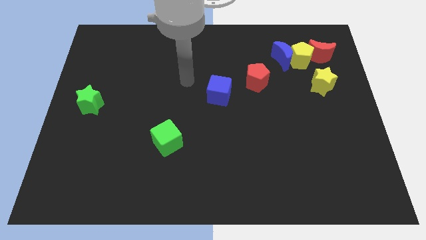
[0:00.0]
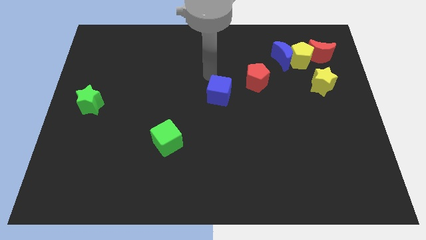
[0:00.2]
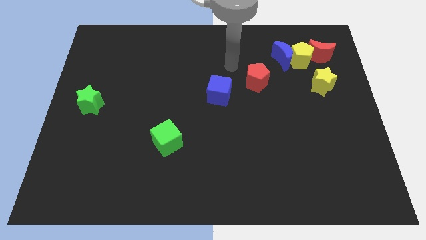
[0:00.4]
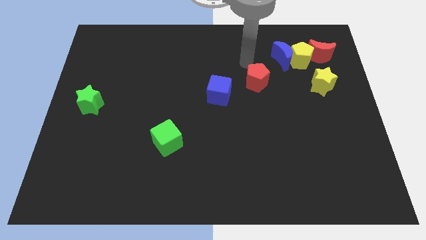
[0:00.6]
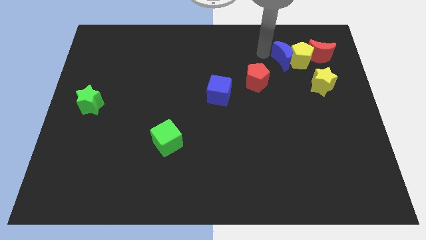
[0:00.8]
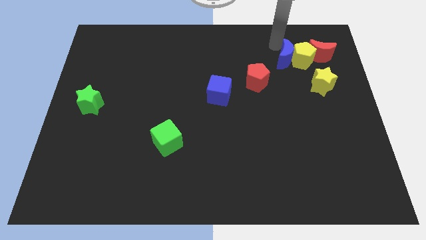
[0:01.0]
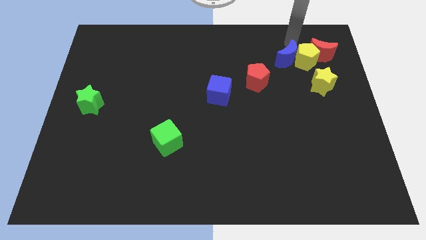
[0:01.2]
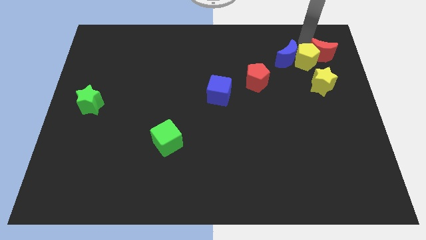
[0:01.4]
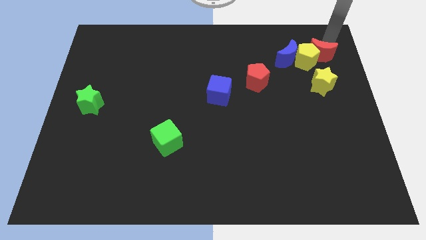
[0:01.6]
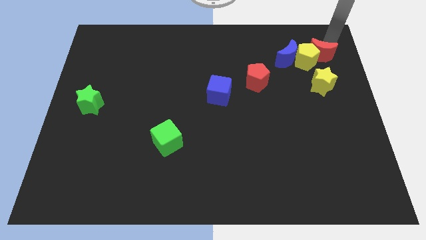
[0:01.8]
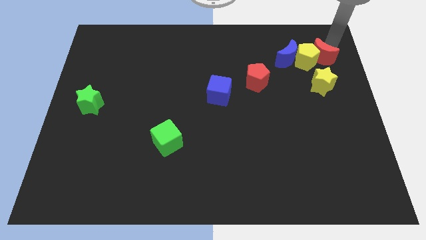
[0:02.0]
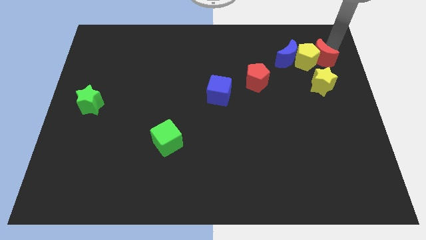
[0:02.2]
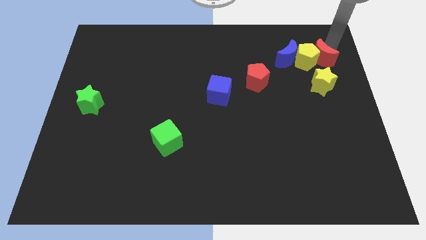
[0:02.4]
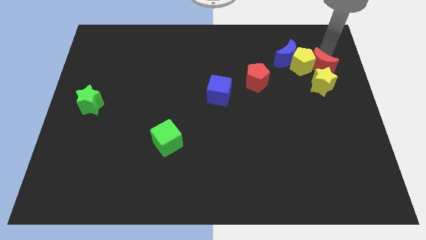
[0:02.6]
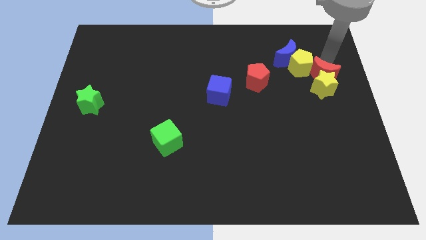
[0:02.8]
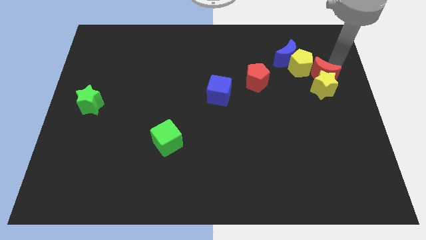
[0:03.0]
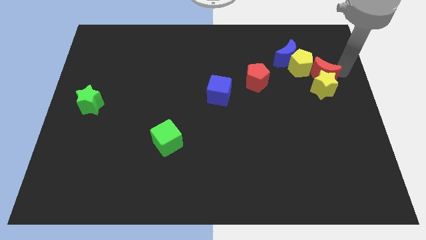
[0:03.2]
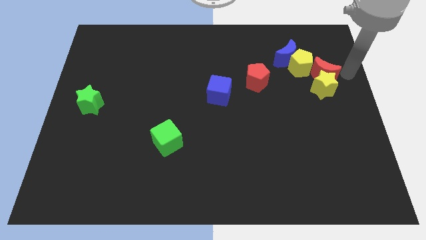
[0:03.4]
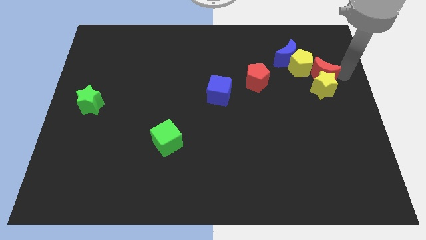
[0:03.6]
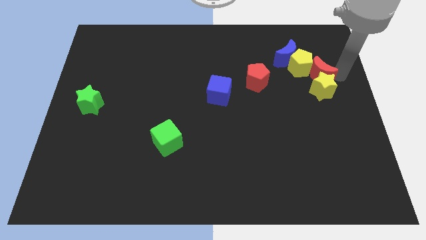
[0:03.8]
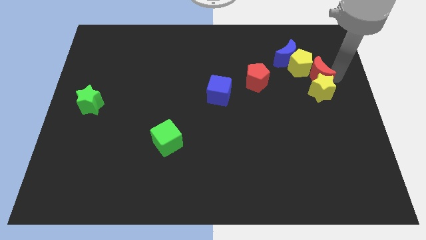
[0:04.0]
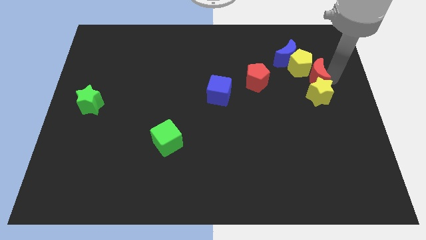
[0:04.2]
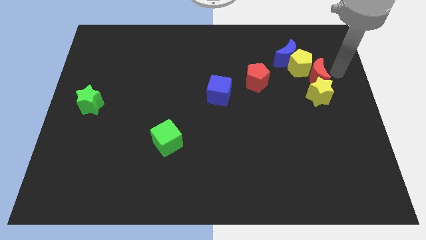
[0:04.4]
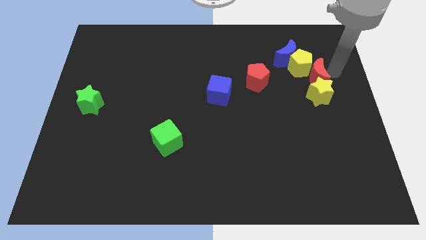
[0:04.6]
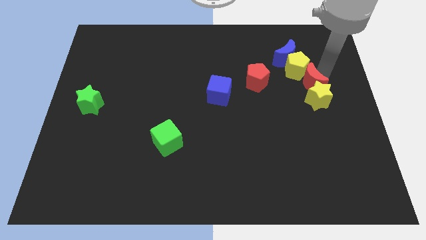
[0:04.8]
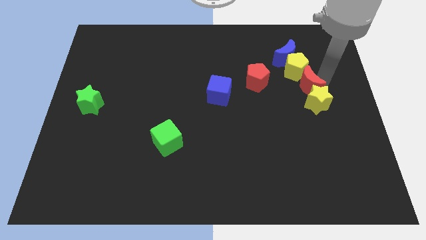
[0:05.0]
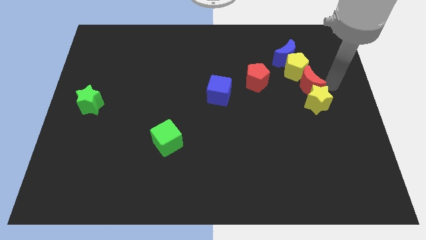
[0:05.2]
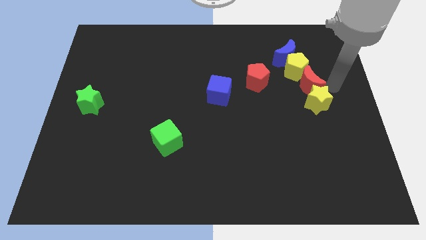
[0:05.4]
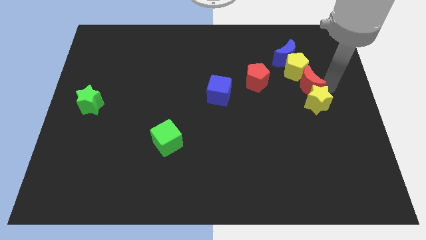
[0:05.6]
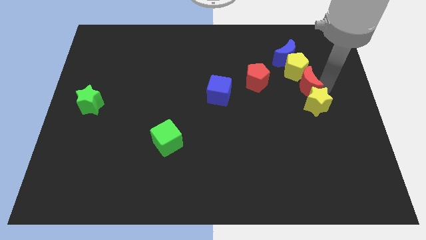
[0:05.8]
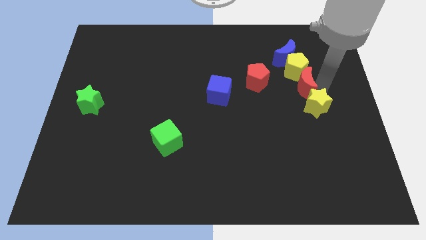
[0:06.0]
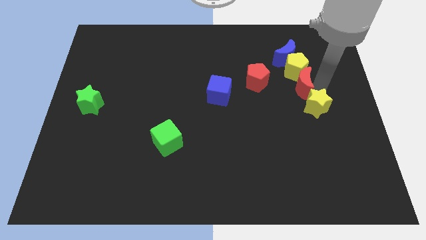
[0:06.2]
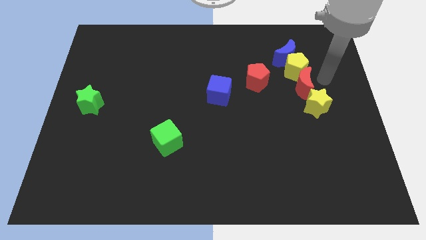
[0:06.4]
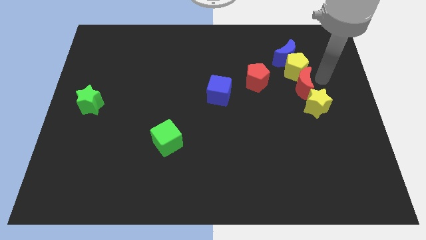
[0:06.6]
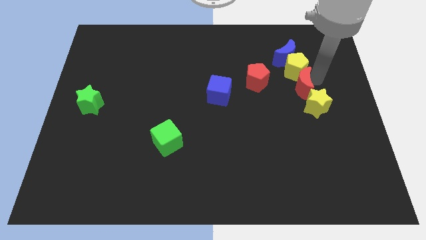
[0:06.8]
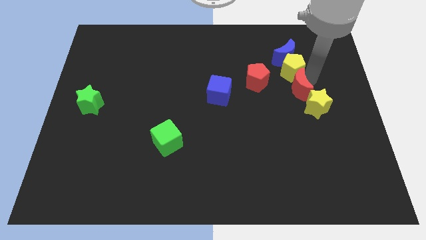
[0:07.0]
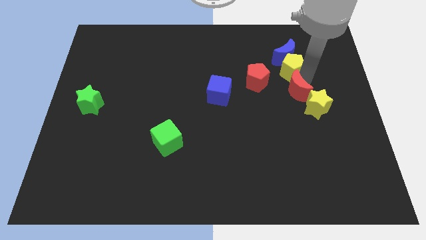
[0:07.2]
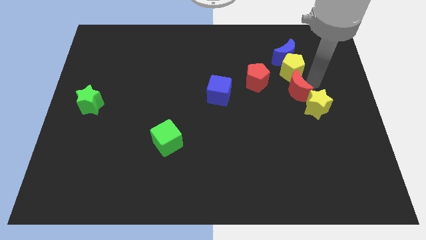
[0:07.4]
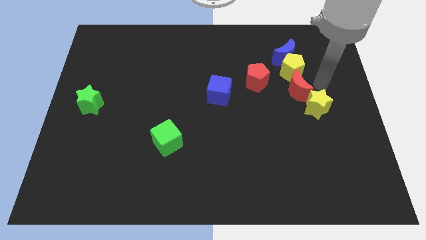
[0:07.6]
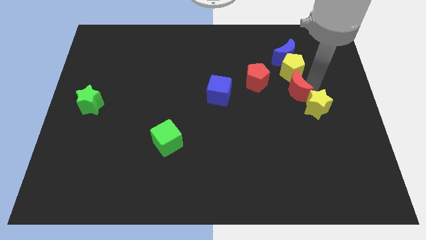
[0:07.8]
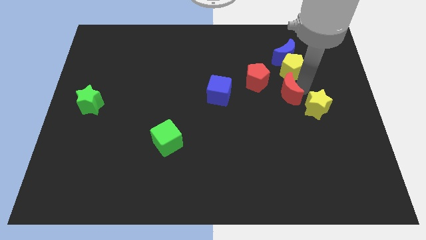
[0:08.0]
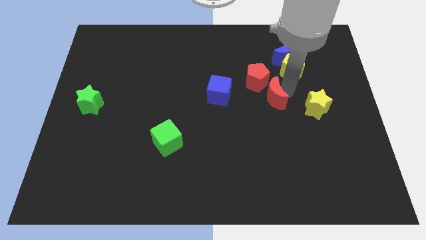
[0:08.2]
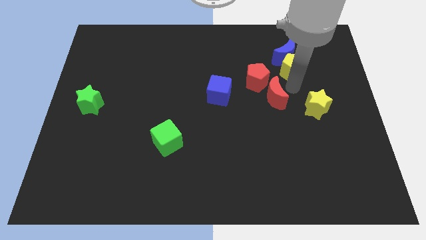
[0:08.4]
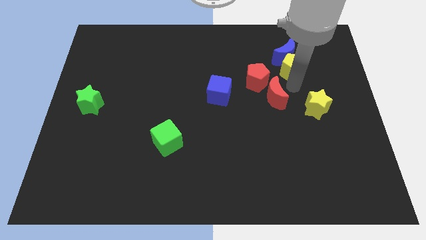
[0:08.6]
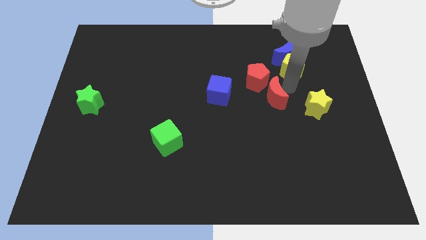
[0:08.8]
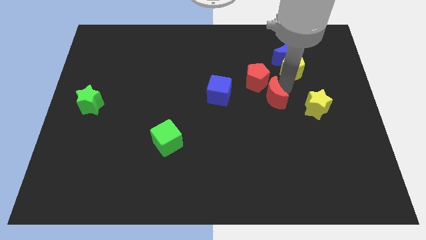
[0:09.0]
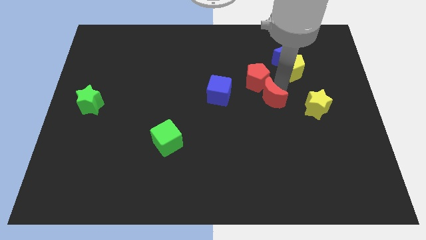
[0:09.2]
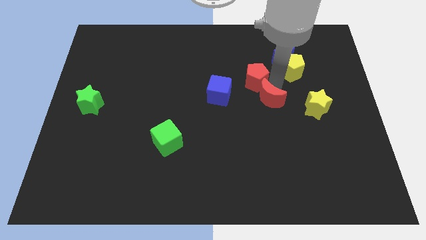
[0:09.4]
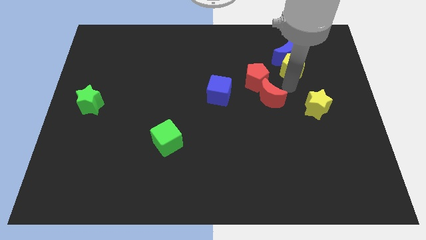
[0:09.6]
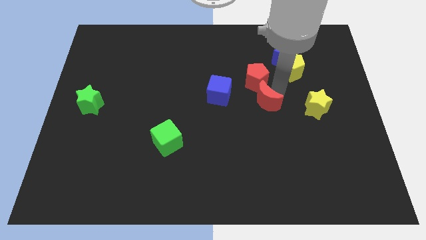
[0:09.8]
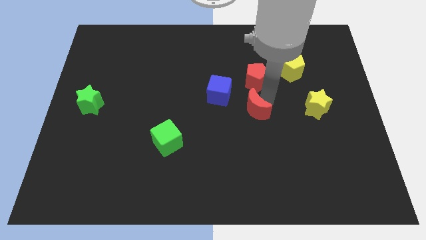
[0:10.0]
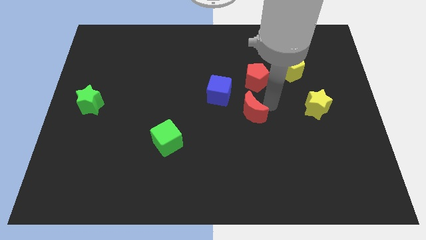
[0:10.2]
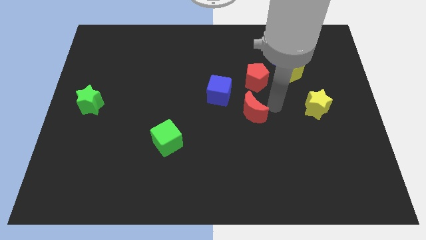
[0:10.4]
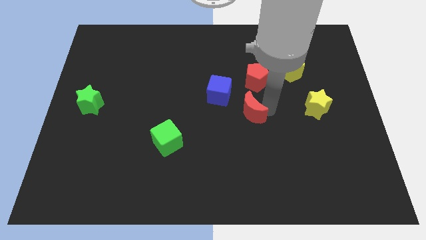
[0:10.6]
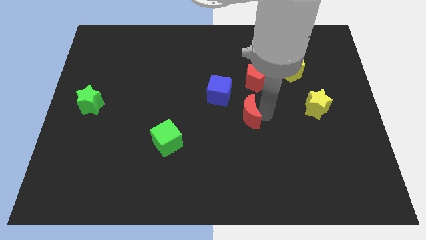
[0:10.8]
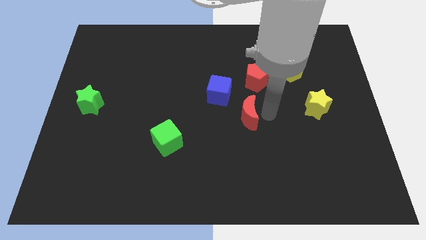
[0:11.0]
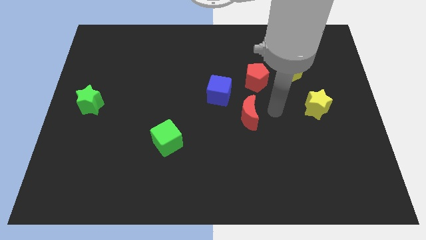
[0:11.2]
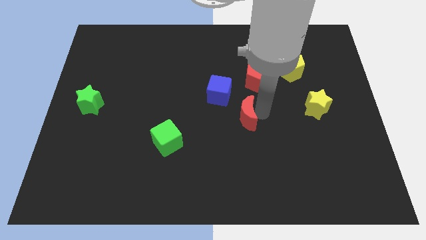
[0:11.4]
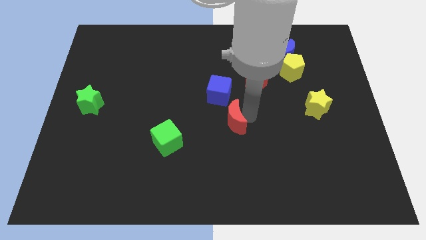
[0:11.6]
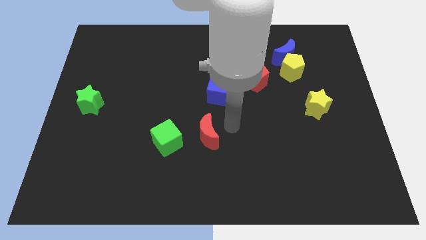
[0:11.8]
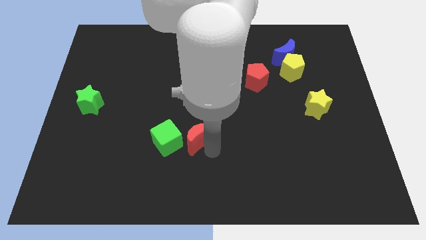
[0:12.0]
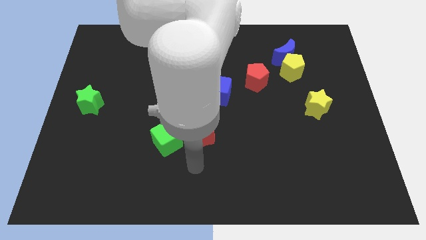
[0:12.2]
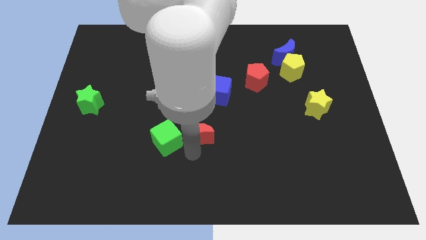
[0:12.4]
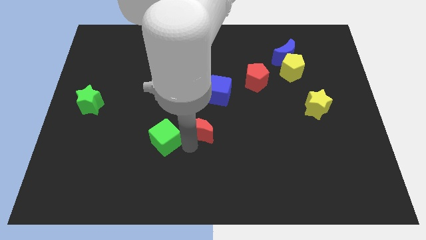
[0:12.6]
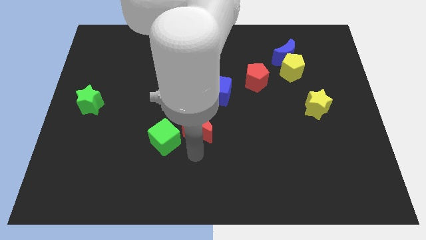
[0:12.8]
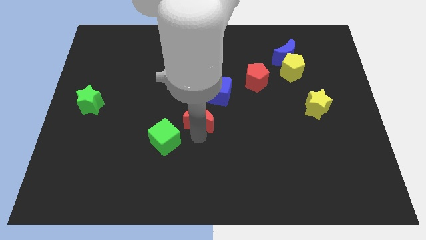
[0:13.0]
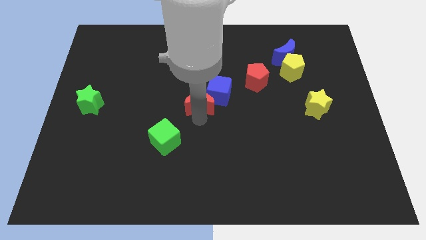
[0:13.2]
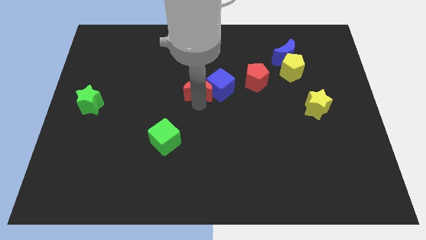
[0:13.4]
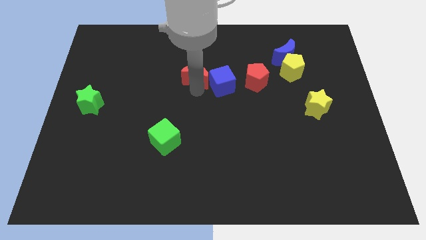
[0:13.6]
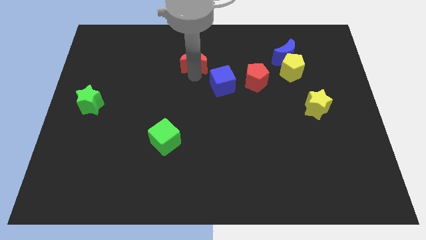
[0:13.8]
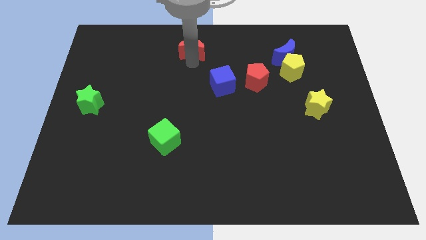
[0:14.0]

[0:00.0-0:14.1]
slide the red moon to the top
